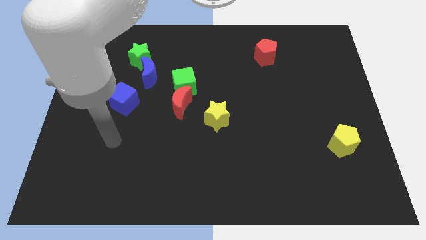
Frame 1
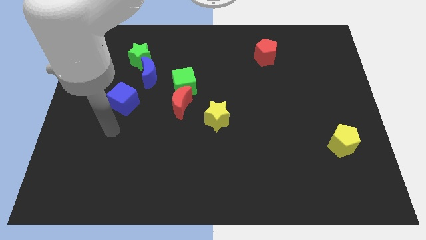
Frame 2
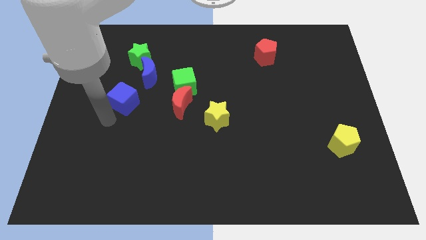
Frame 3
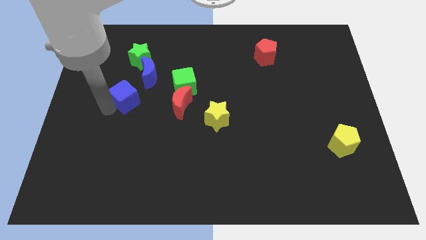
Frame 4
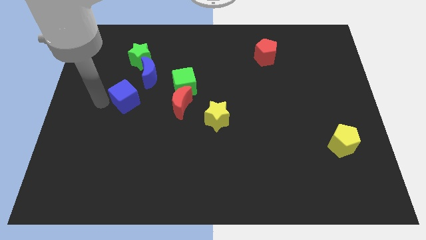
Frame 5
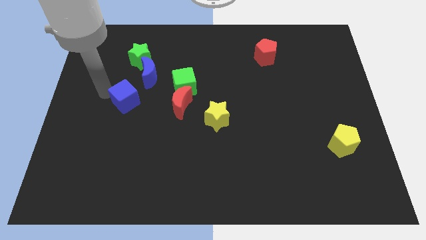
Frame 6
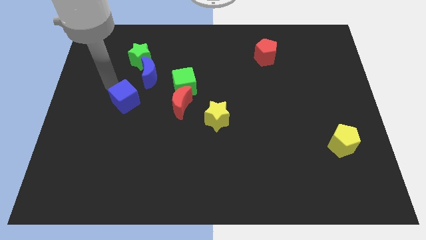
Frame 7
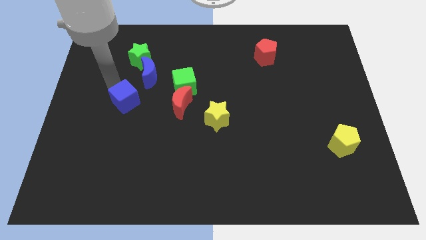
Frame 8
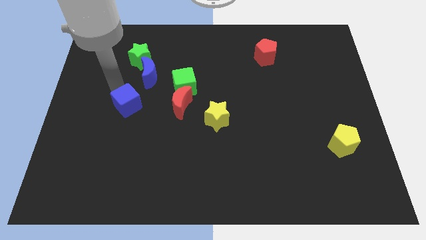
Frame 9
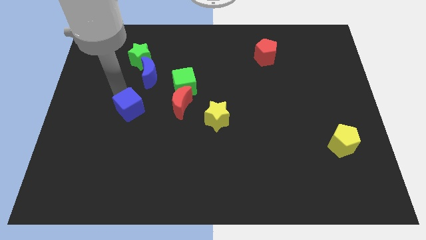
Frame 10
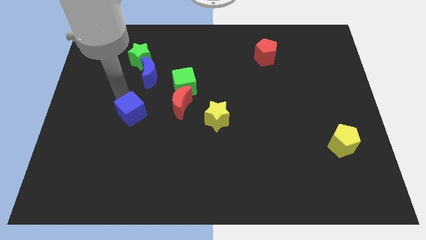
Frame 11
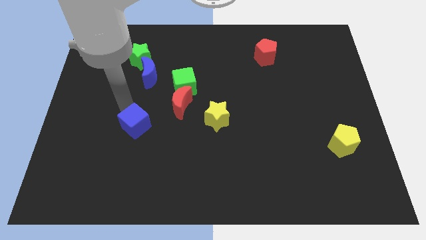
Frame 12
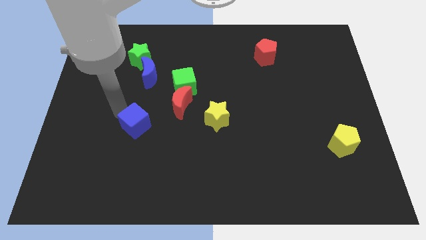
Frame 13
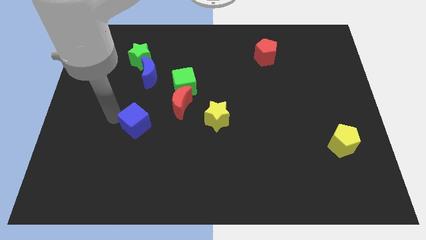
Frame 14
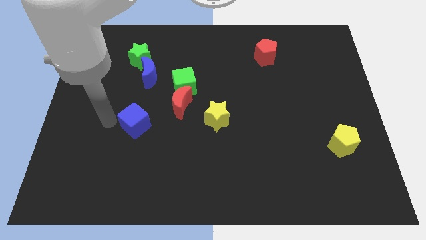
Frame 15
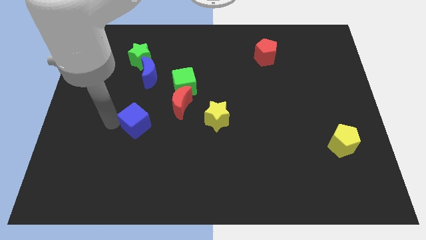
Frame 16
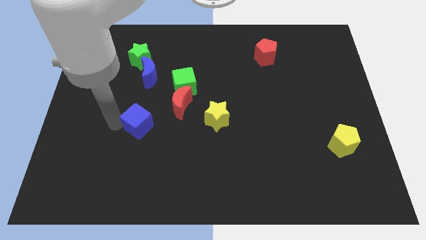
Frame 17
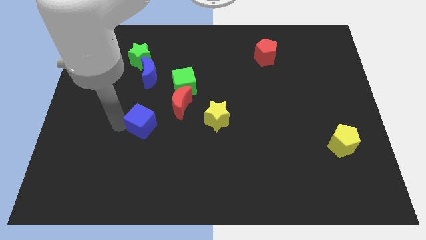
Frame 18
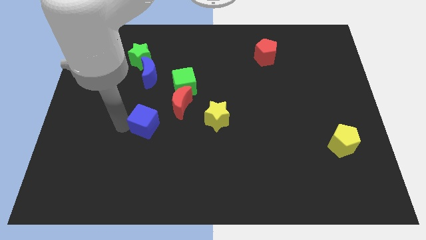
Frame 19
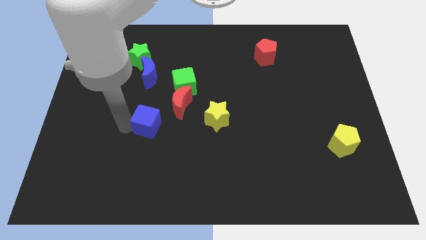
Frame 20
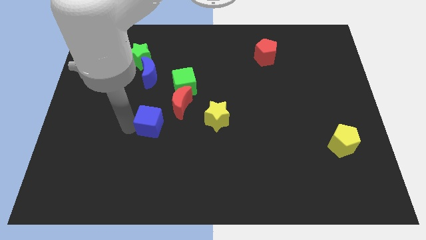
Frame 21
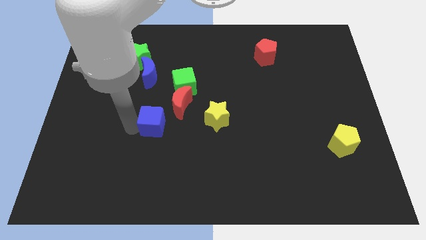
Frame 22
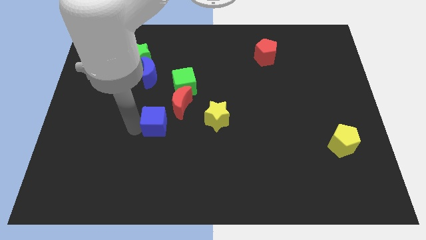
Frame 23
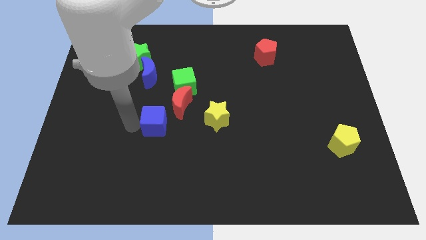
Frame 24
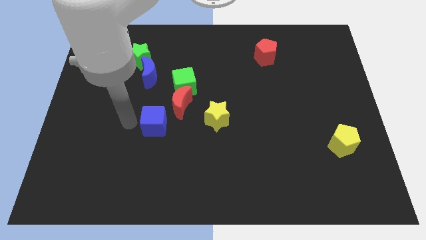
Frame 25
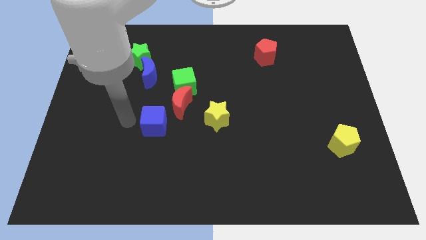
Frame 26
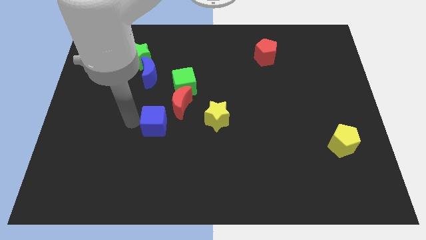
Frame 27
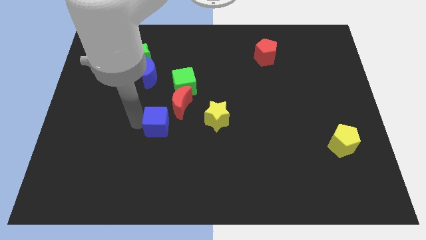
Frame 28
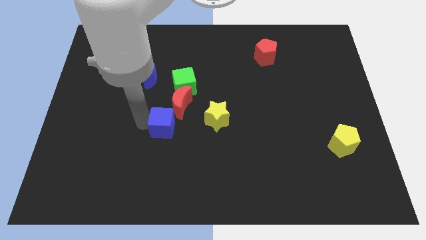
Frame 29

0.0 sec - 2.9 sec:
push the blue cube a bit to the right

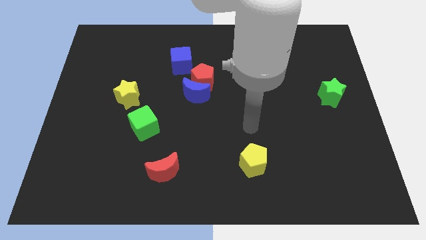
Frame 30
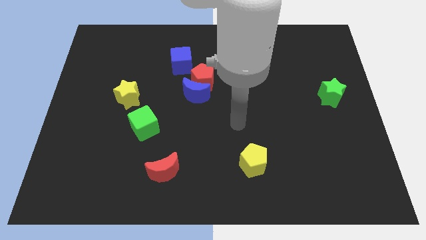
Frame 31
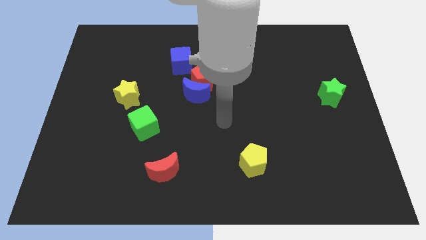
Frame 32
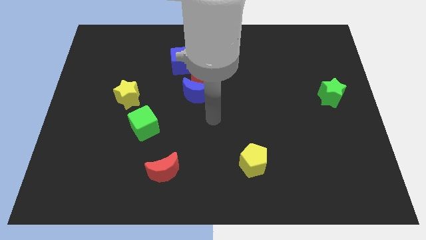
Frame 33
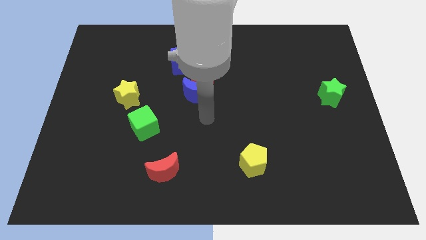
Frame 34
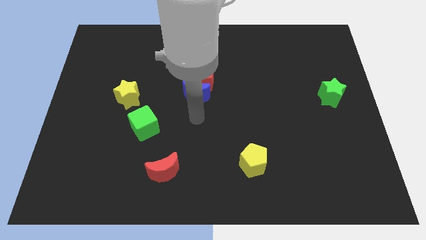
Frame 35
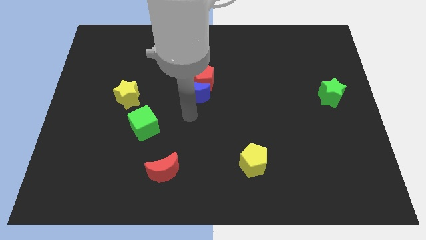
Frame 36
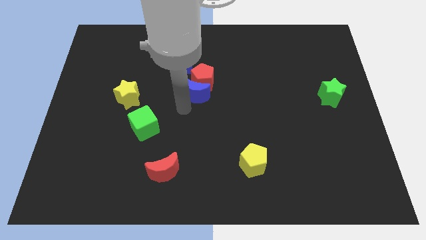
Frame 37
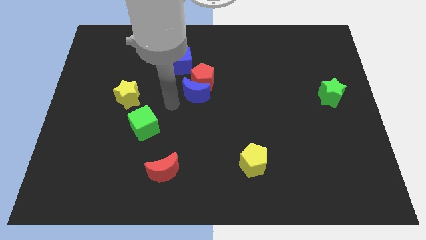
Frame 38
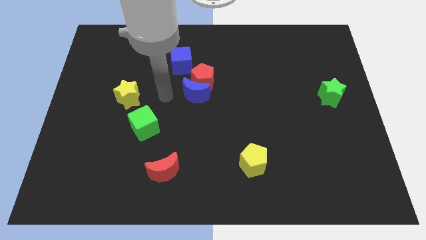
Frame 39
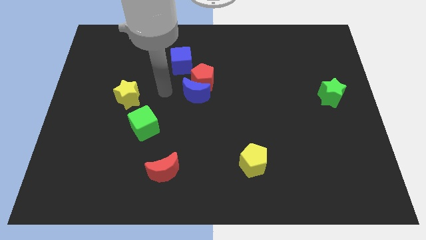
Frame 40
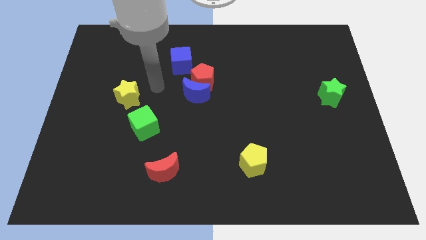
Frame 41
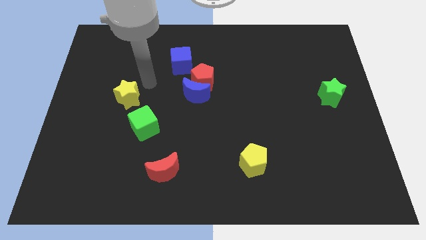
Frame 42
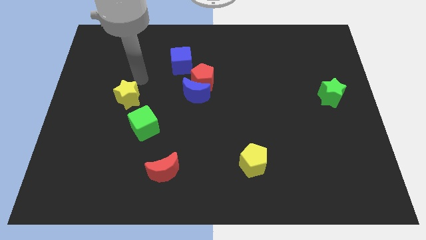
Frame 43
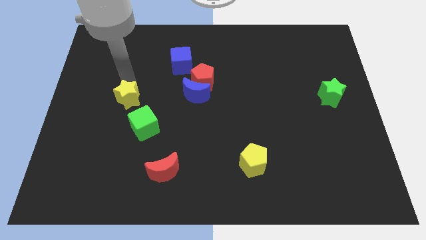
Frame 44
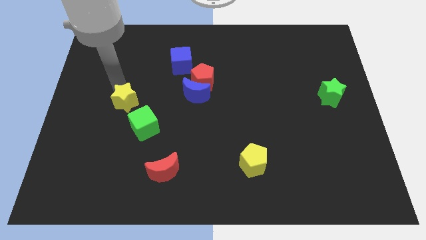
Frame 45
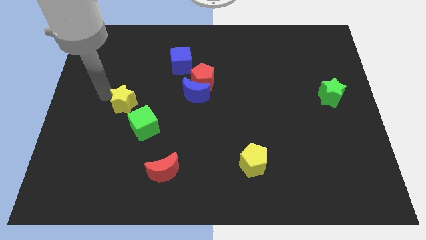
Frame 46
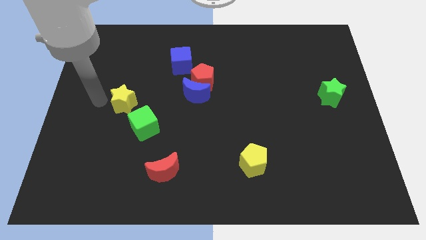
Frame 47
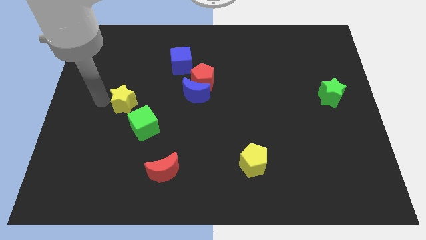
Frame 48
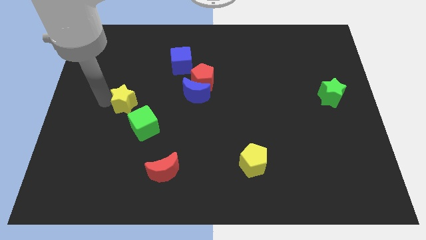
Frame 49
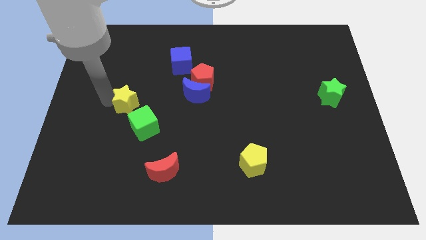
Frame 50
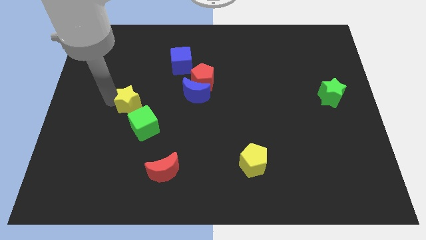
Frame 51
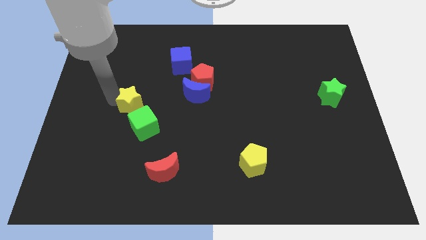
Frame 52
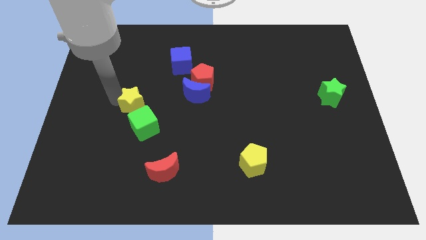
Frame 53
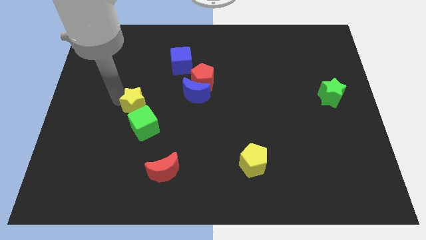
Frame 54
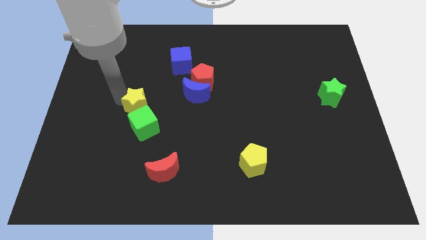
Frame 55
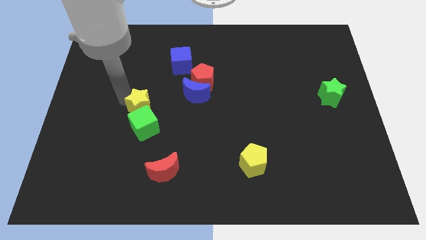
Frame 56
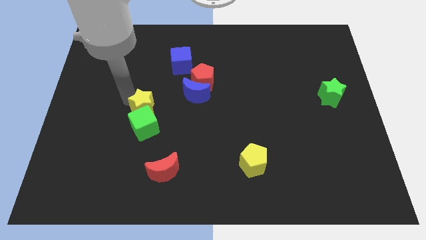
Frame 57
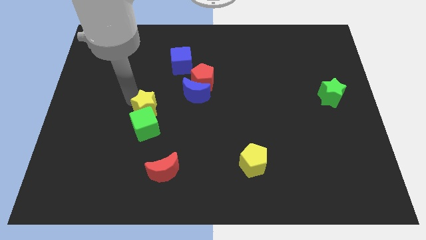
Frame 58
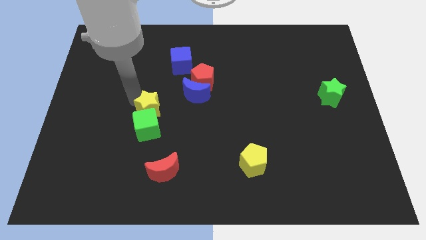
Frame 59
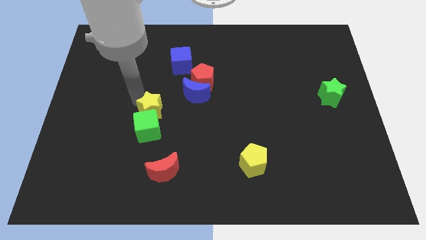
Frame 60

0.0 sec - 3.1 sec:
slightly push the yellow star downwards and to the right diagonally

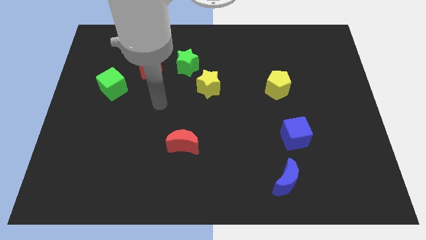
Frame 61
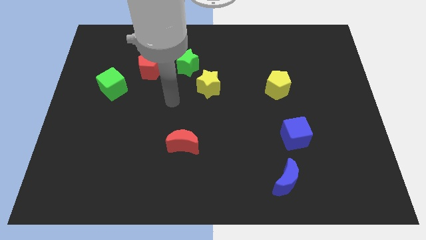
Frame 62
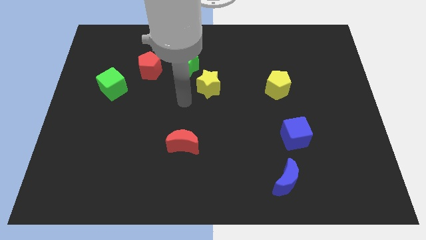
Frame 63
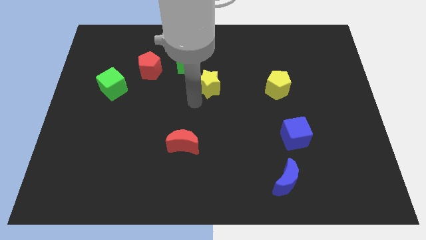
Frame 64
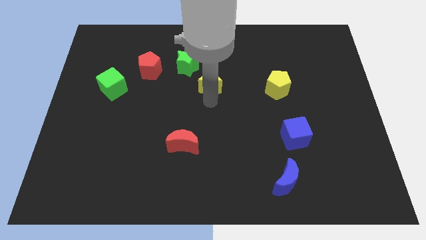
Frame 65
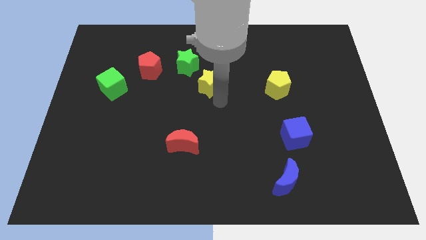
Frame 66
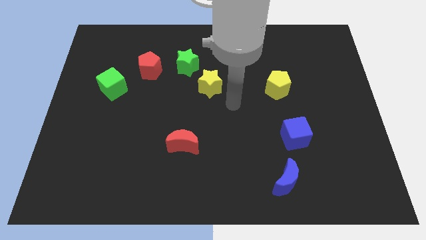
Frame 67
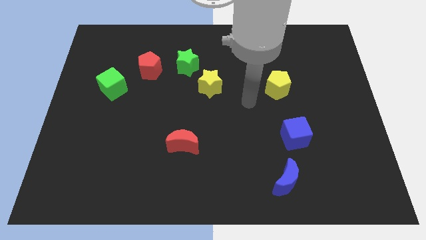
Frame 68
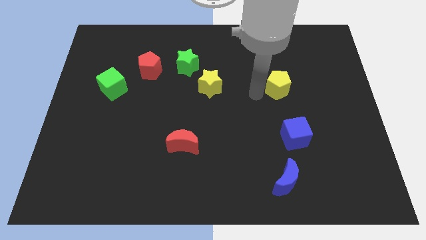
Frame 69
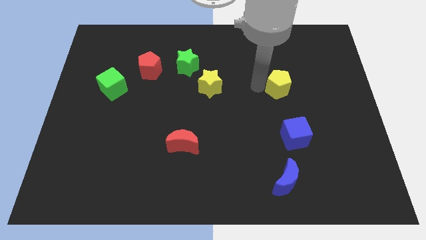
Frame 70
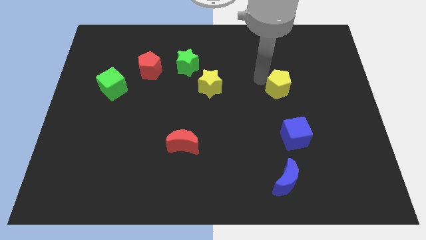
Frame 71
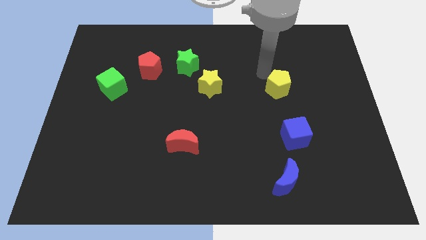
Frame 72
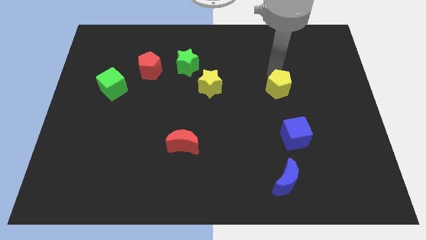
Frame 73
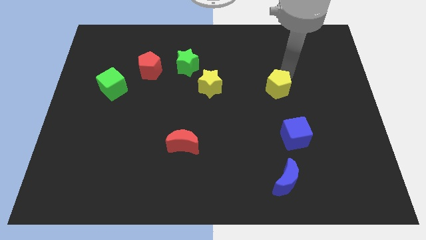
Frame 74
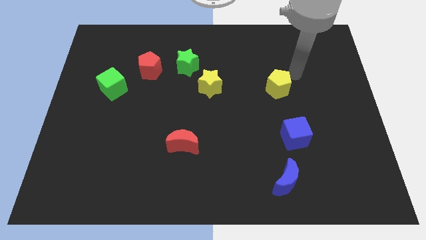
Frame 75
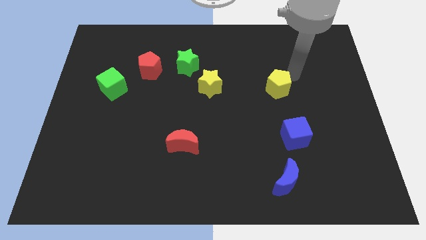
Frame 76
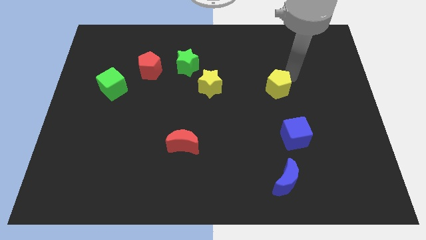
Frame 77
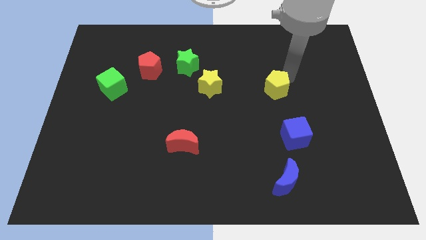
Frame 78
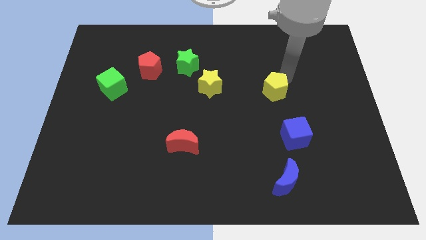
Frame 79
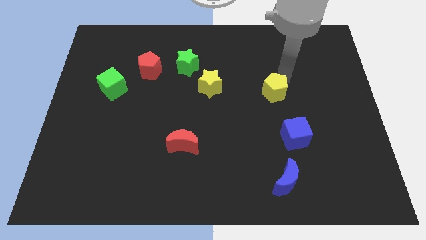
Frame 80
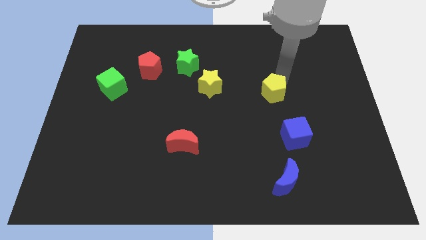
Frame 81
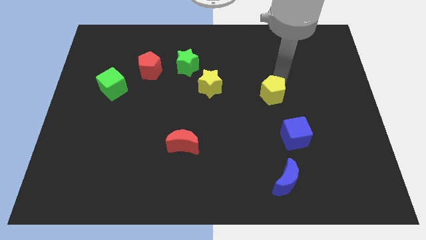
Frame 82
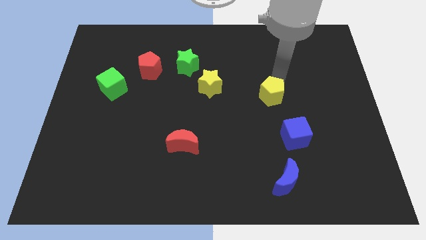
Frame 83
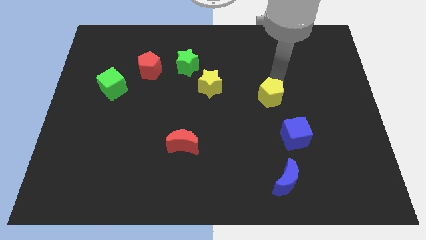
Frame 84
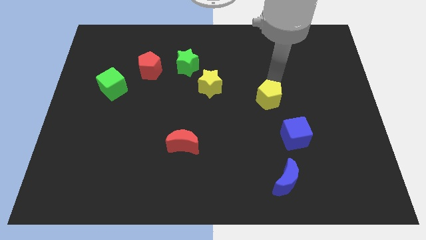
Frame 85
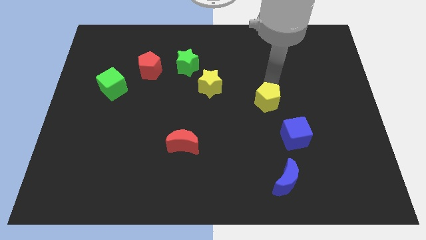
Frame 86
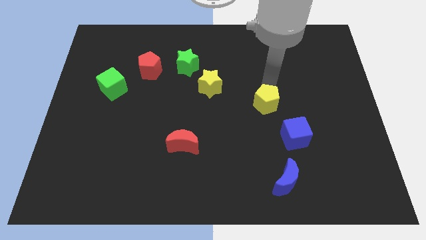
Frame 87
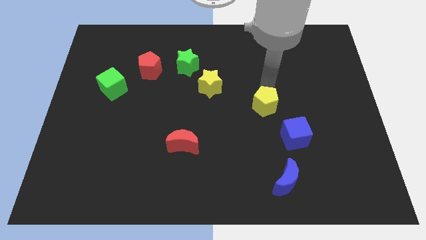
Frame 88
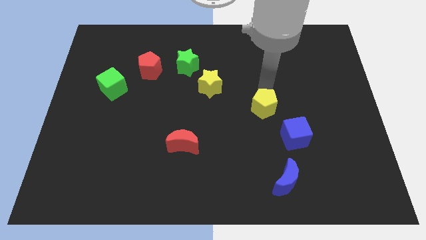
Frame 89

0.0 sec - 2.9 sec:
slightly push the yellow pentagon downwards and to the left diagonally
